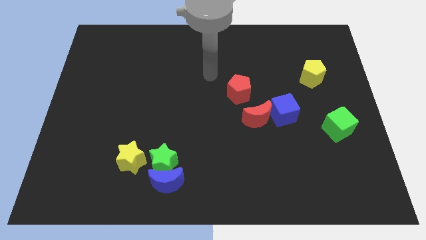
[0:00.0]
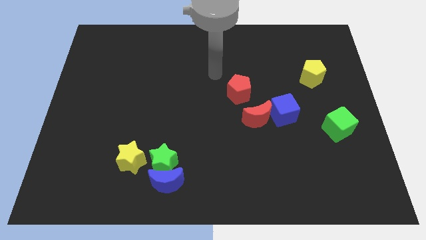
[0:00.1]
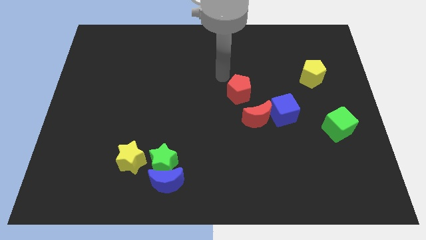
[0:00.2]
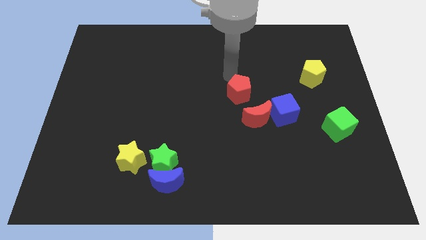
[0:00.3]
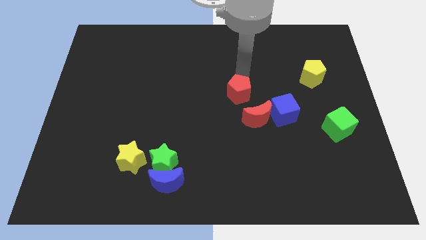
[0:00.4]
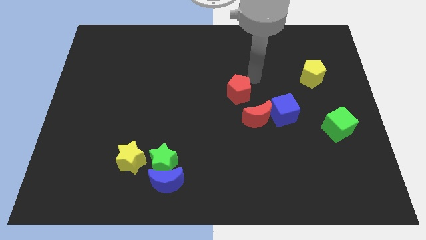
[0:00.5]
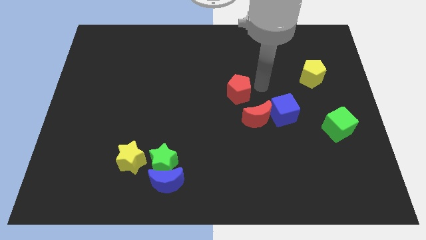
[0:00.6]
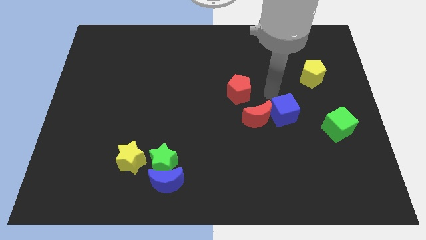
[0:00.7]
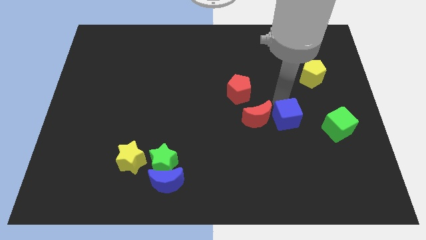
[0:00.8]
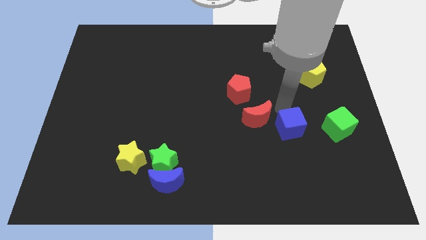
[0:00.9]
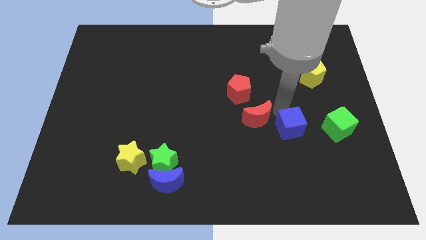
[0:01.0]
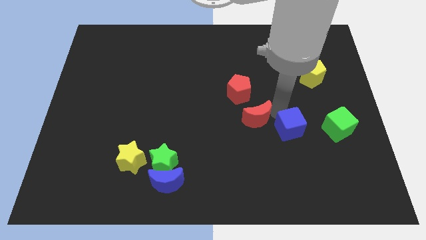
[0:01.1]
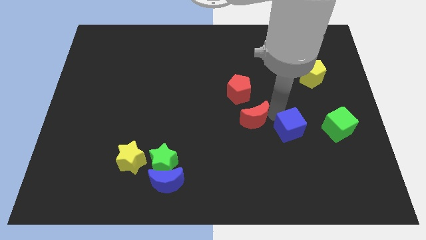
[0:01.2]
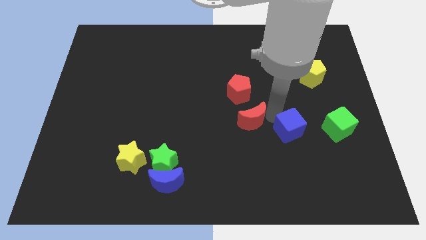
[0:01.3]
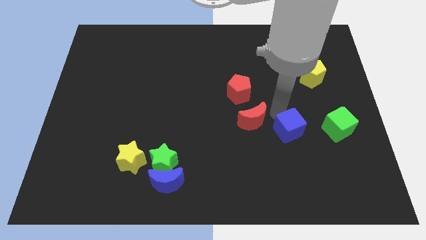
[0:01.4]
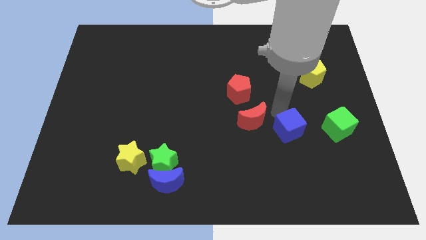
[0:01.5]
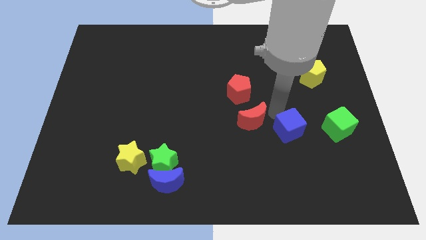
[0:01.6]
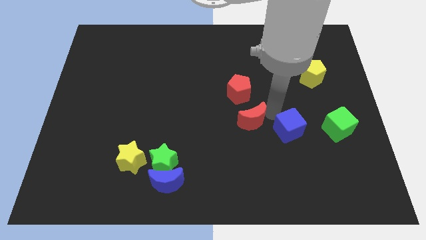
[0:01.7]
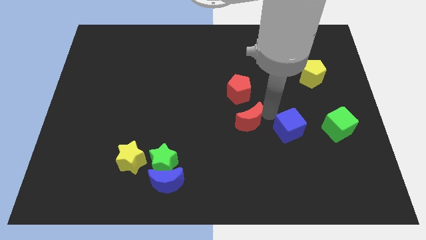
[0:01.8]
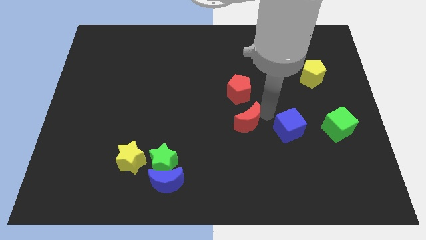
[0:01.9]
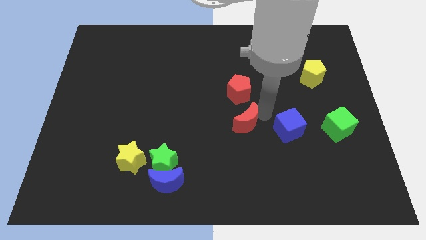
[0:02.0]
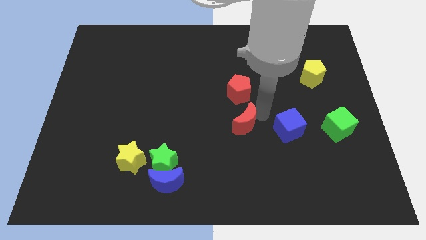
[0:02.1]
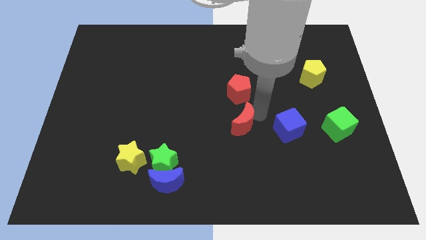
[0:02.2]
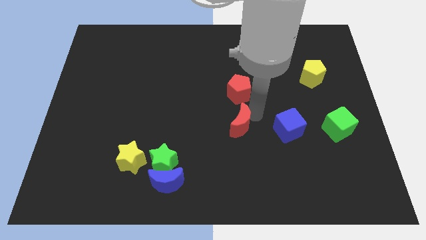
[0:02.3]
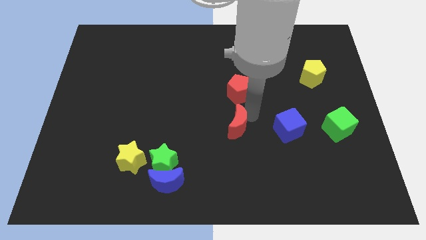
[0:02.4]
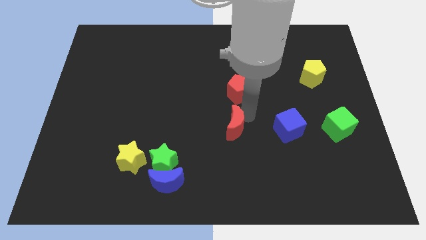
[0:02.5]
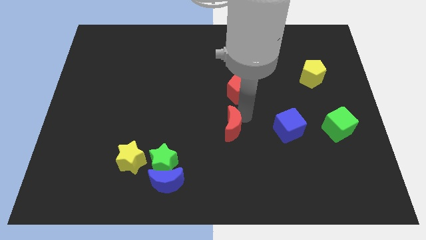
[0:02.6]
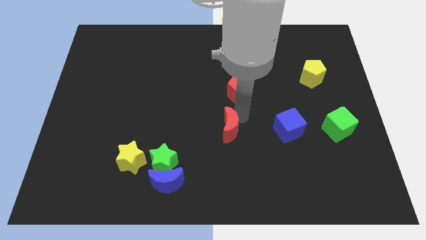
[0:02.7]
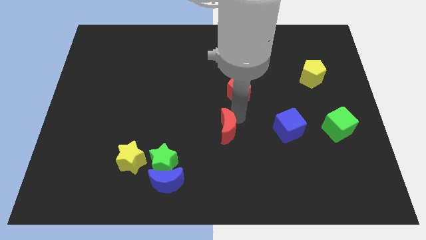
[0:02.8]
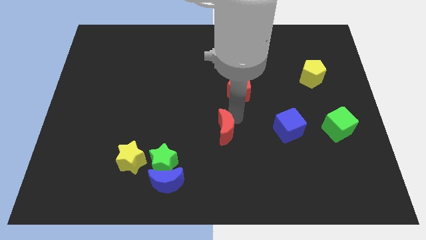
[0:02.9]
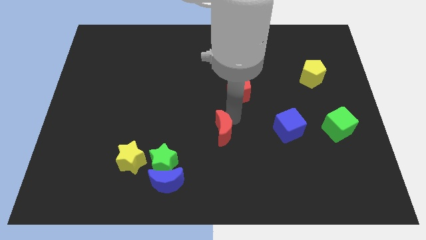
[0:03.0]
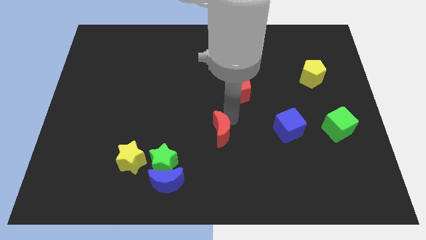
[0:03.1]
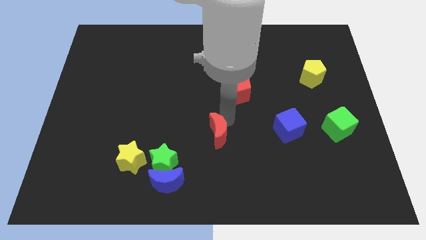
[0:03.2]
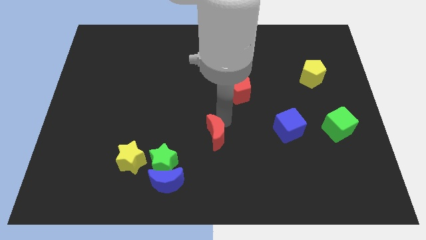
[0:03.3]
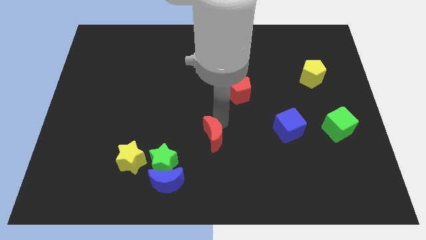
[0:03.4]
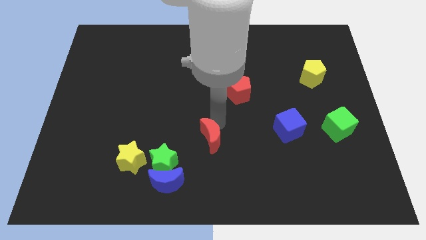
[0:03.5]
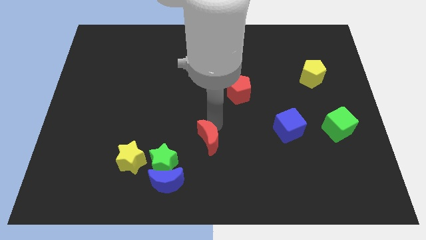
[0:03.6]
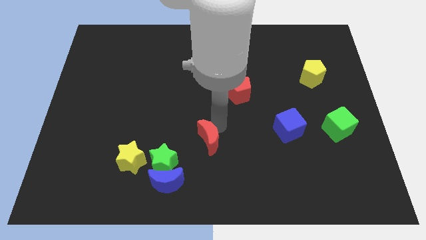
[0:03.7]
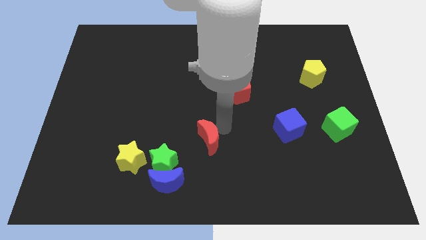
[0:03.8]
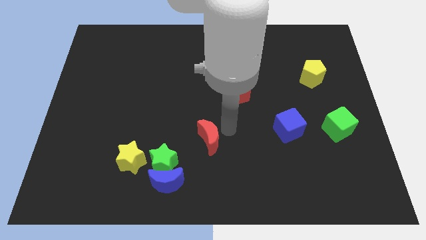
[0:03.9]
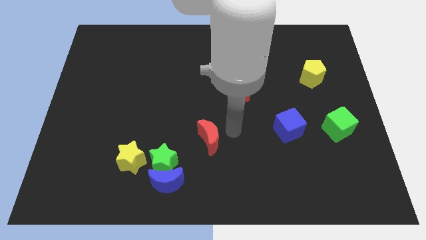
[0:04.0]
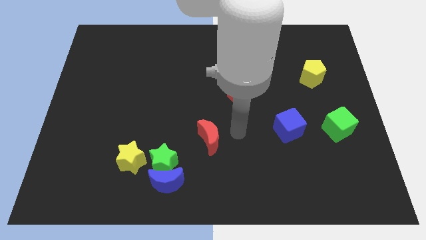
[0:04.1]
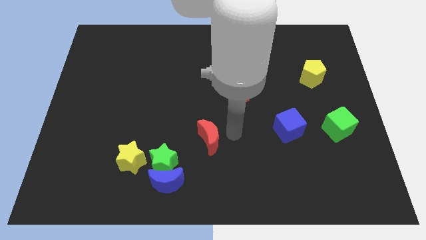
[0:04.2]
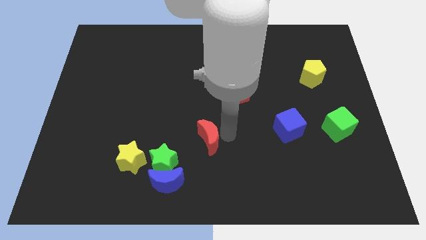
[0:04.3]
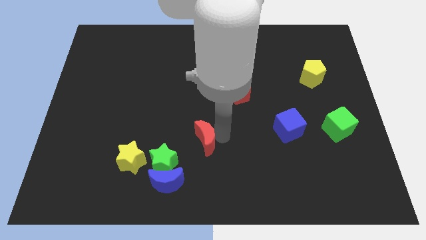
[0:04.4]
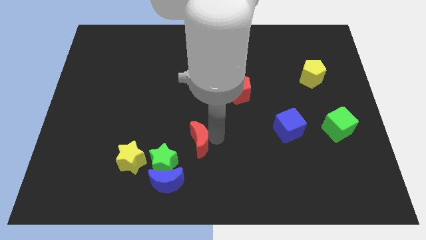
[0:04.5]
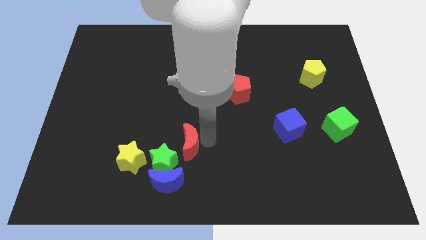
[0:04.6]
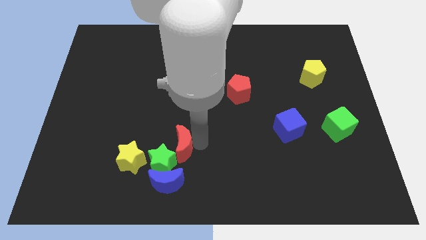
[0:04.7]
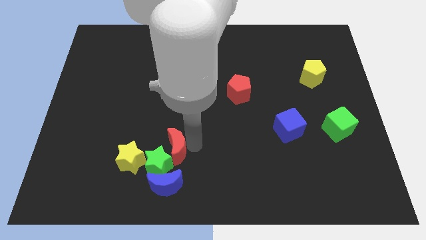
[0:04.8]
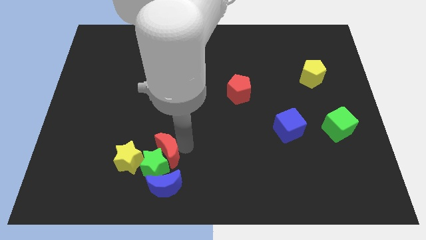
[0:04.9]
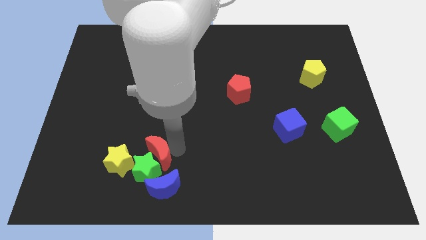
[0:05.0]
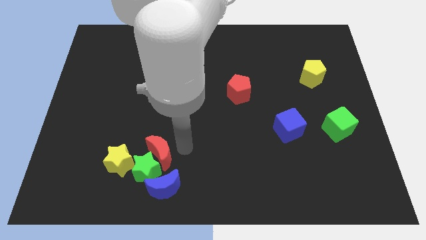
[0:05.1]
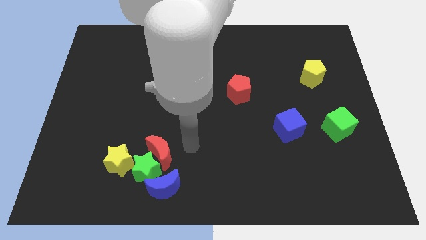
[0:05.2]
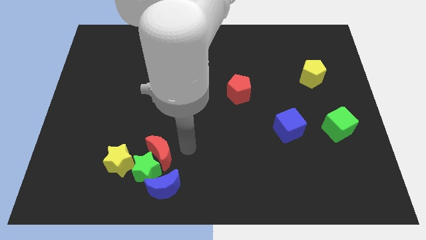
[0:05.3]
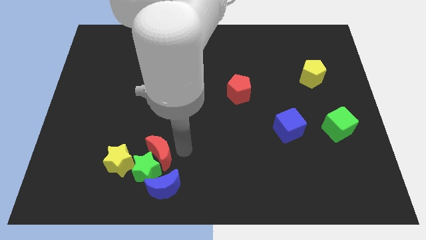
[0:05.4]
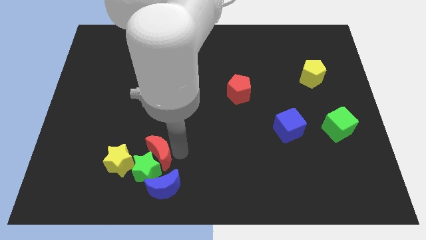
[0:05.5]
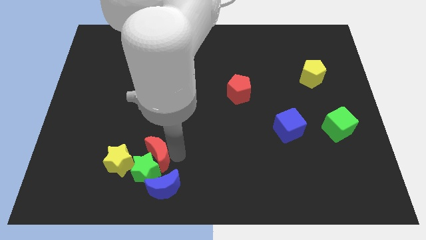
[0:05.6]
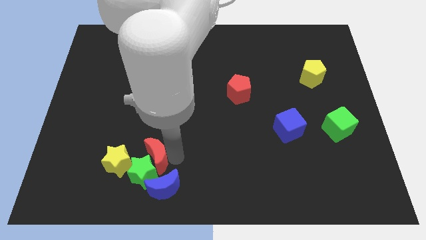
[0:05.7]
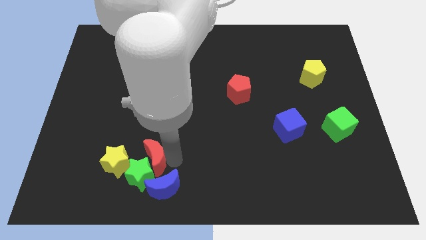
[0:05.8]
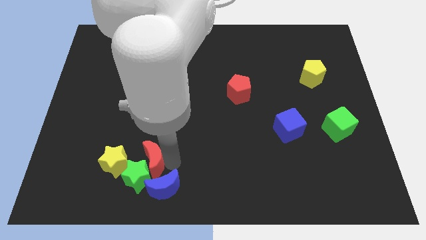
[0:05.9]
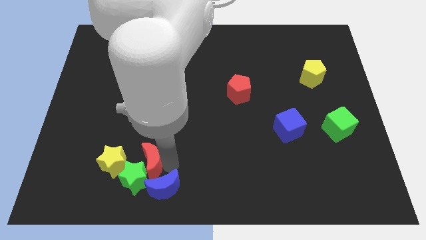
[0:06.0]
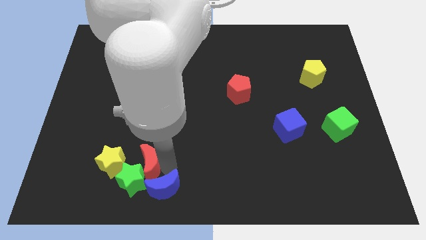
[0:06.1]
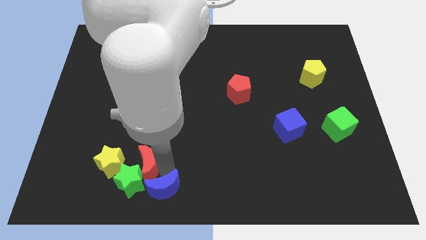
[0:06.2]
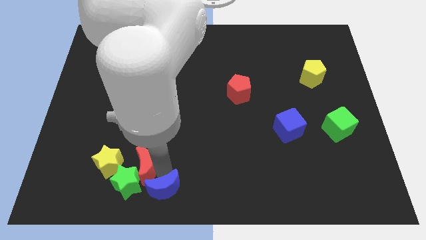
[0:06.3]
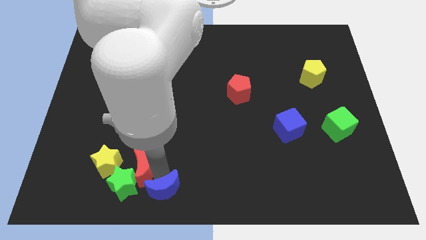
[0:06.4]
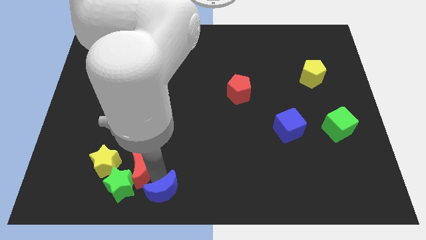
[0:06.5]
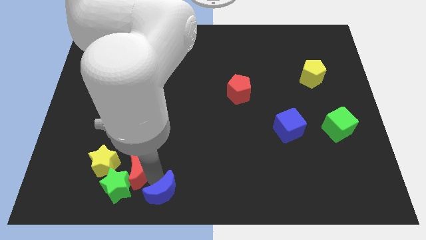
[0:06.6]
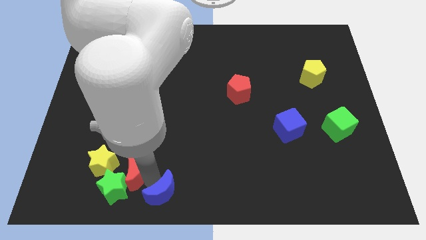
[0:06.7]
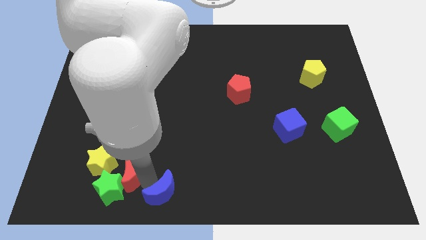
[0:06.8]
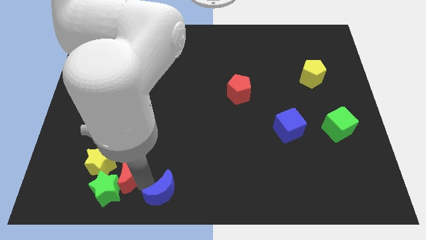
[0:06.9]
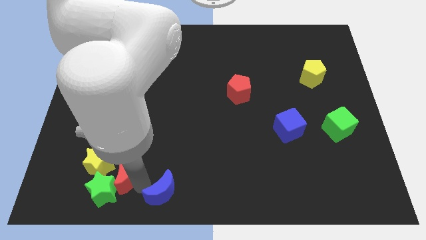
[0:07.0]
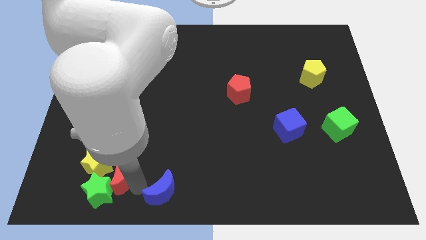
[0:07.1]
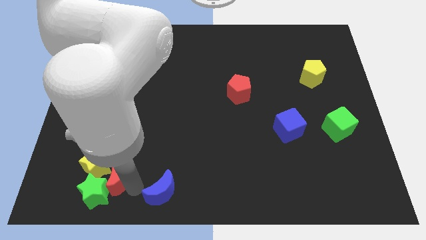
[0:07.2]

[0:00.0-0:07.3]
move the red moon close to the yellow star

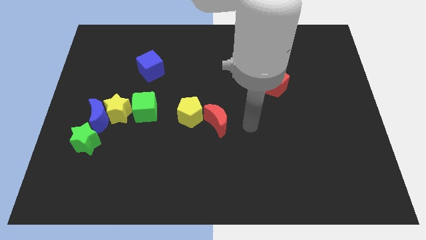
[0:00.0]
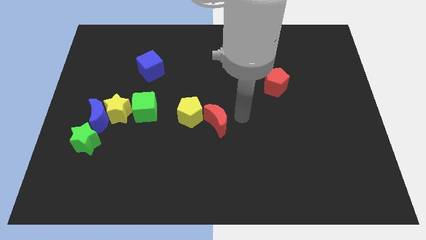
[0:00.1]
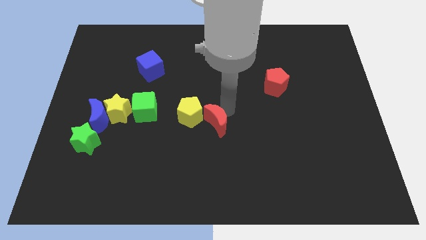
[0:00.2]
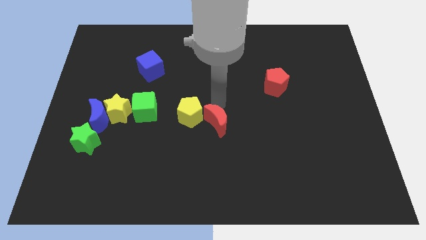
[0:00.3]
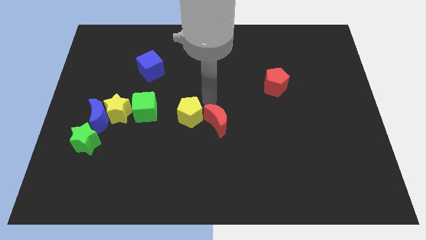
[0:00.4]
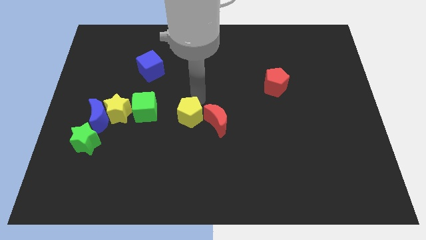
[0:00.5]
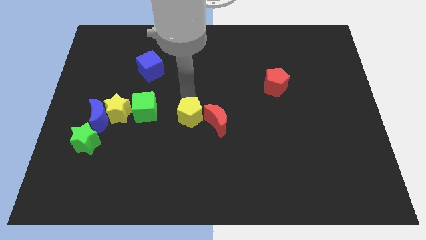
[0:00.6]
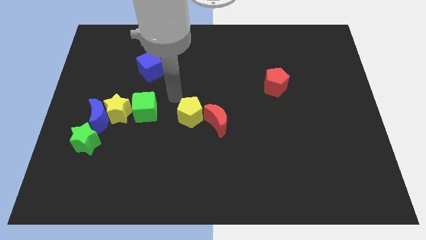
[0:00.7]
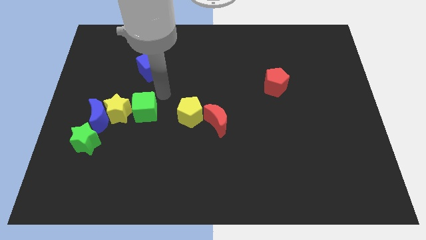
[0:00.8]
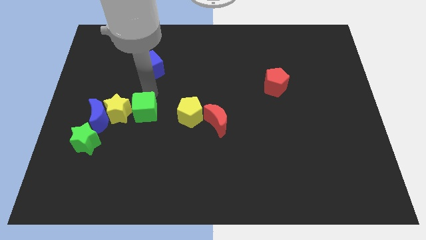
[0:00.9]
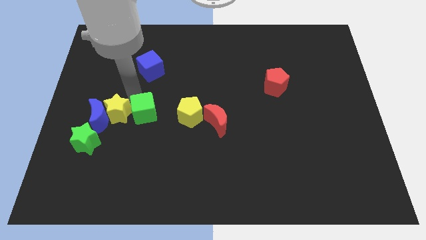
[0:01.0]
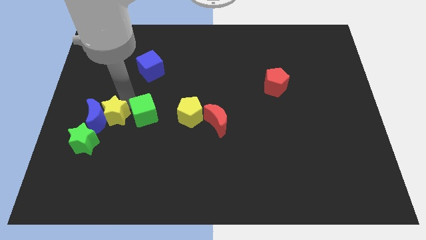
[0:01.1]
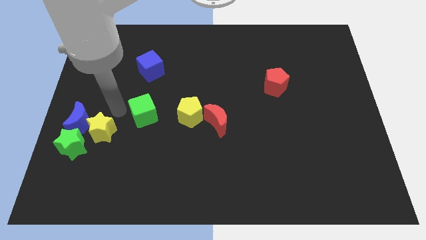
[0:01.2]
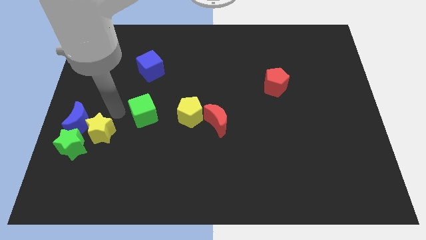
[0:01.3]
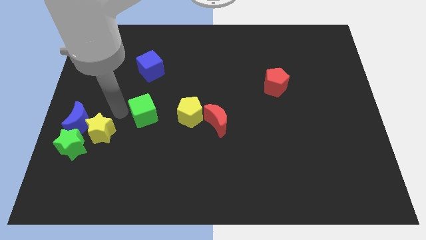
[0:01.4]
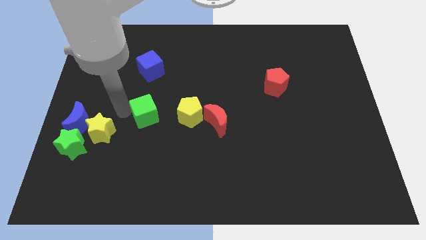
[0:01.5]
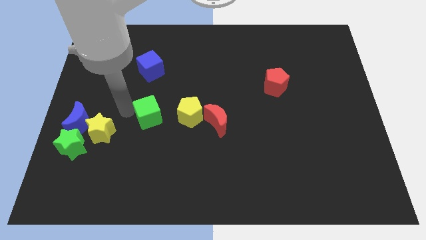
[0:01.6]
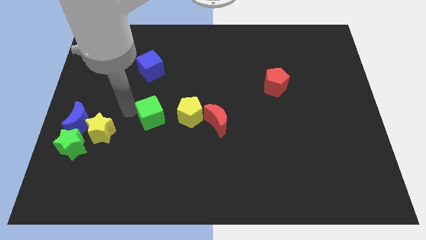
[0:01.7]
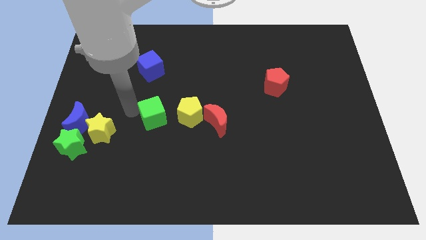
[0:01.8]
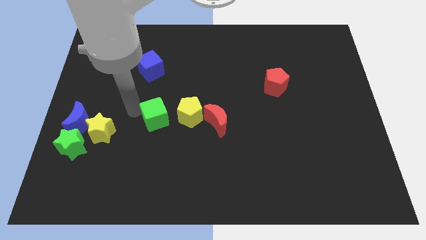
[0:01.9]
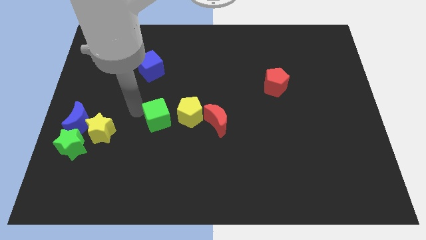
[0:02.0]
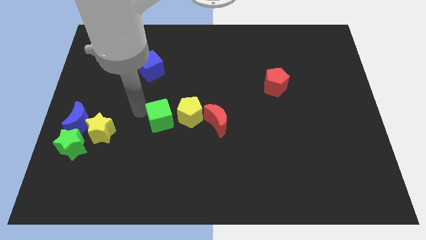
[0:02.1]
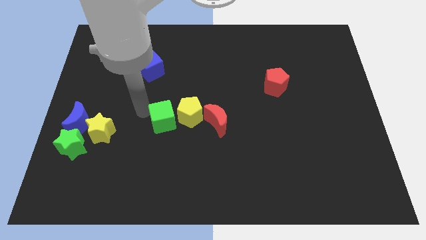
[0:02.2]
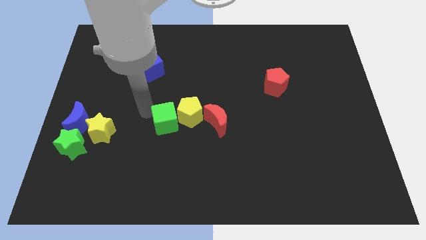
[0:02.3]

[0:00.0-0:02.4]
slide the green cube to the yellow pentagon
